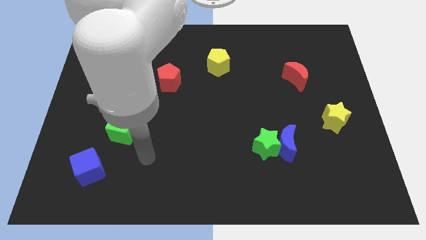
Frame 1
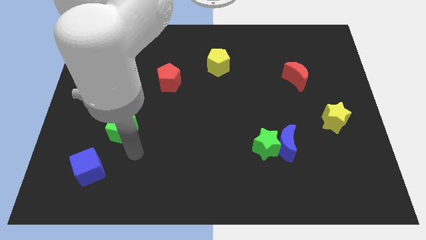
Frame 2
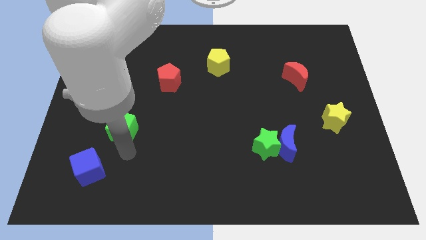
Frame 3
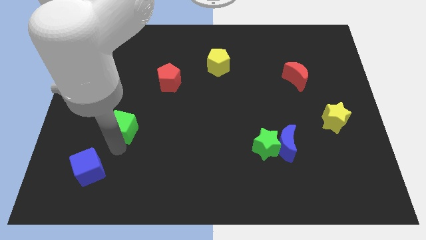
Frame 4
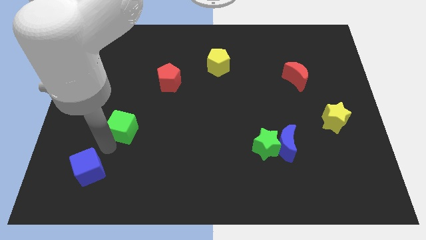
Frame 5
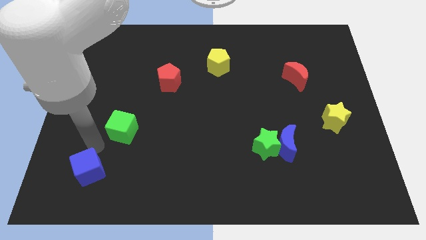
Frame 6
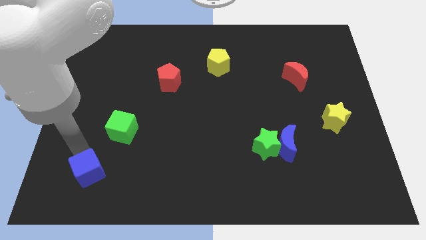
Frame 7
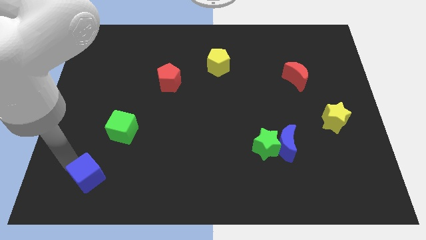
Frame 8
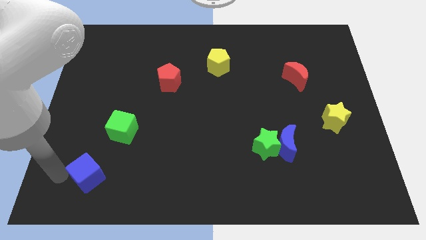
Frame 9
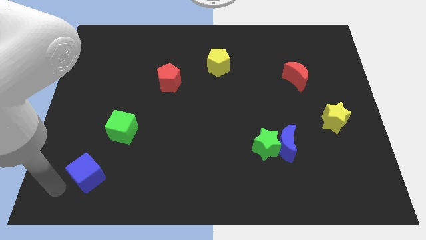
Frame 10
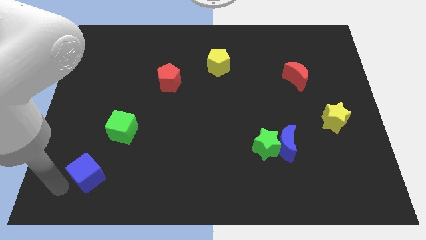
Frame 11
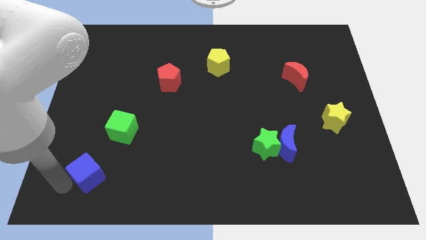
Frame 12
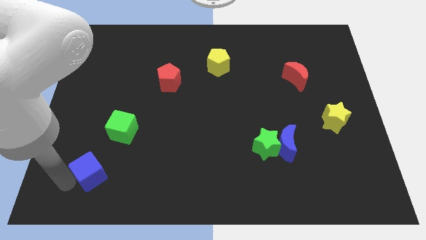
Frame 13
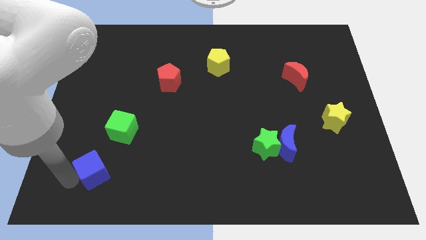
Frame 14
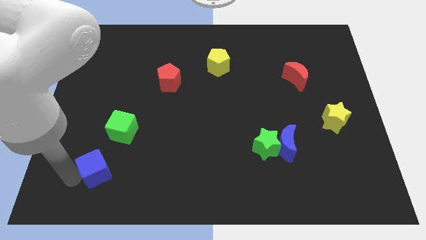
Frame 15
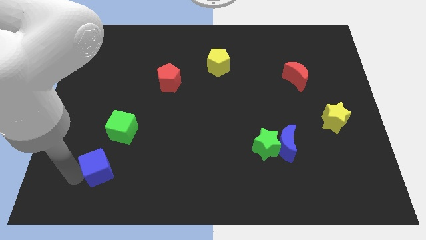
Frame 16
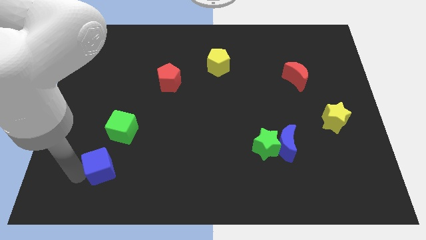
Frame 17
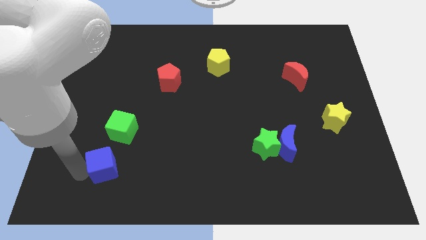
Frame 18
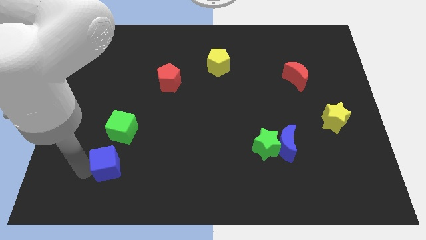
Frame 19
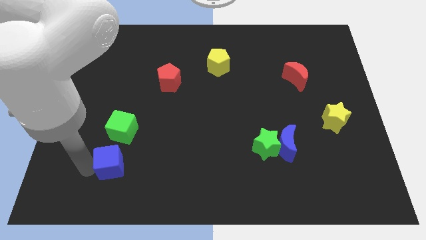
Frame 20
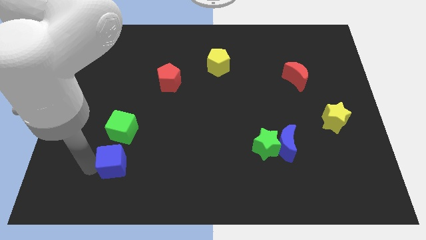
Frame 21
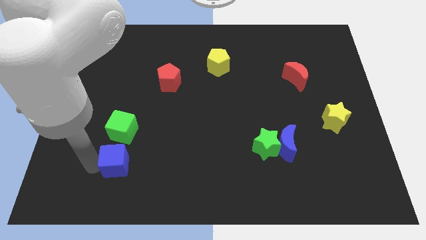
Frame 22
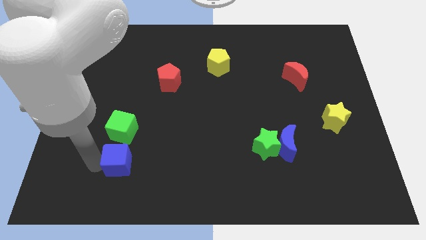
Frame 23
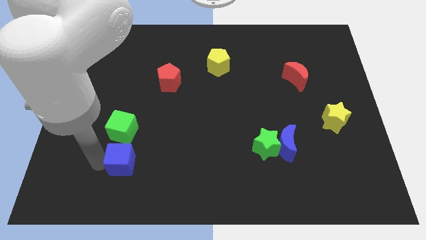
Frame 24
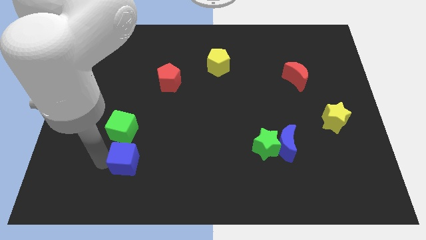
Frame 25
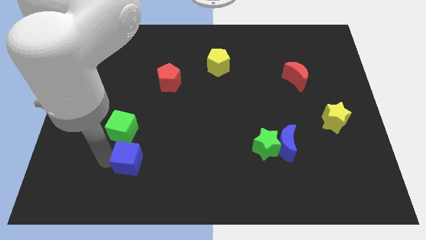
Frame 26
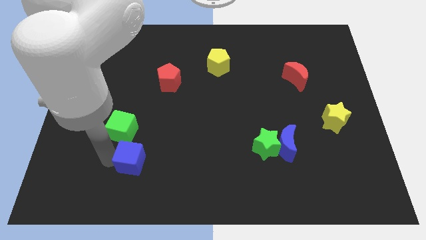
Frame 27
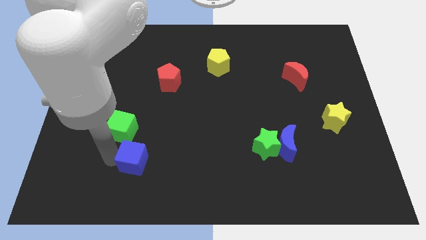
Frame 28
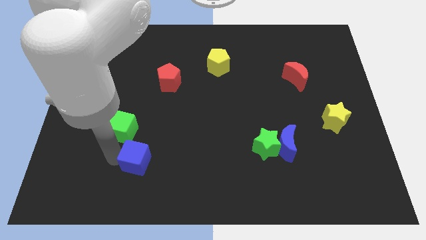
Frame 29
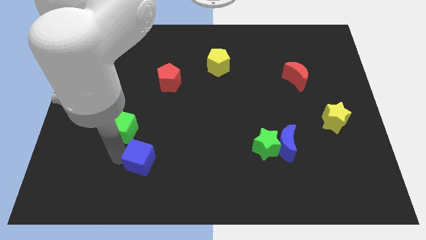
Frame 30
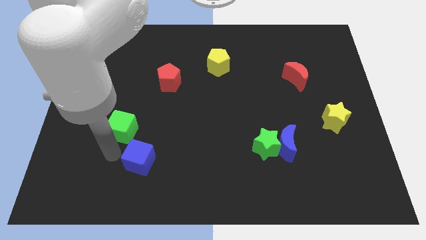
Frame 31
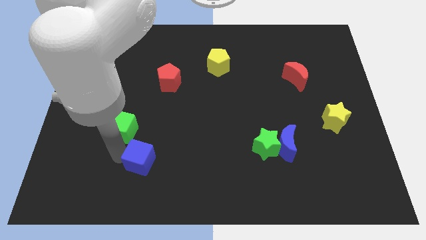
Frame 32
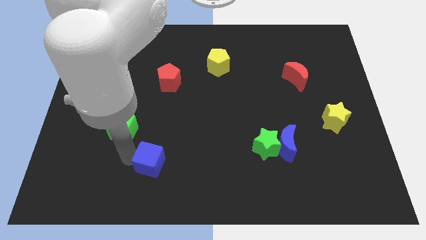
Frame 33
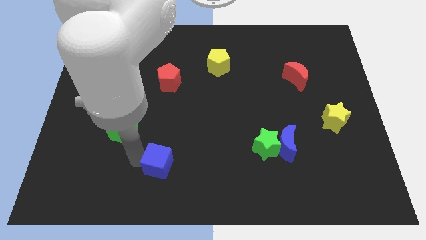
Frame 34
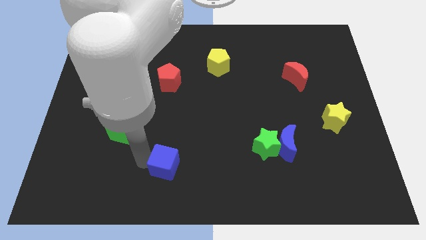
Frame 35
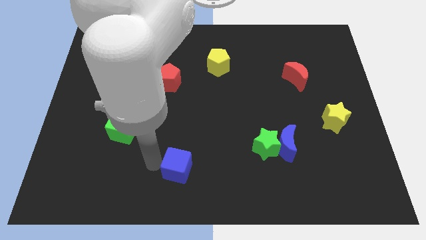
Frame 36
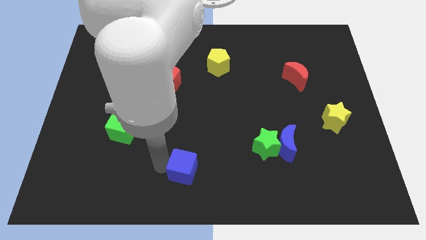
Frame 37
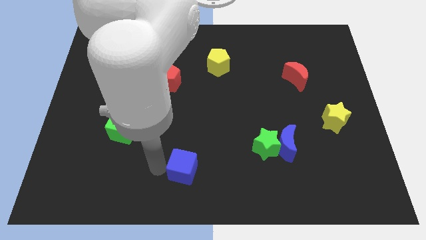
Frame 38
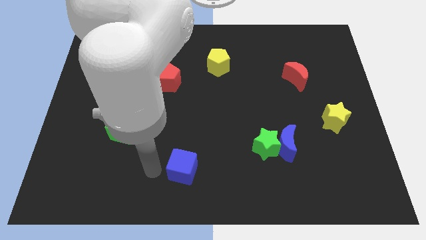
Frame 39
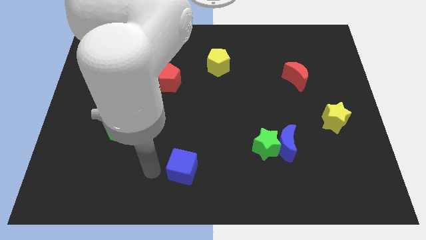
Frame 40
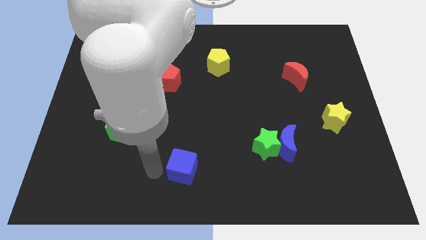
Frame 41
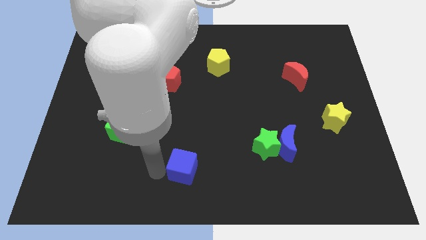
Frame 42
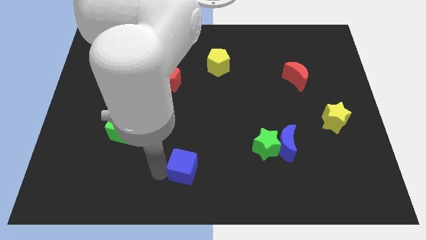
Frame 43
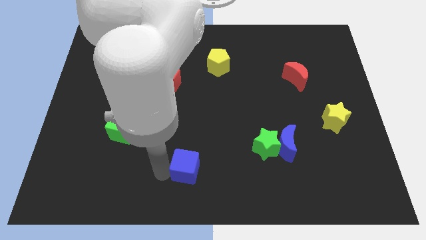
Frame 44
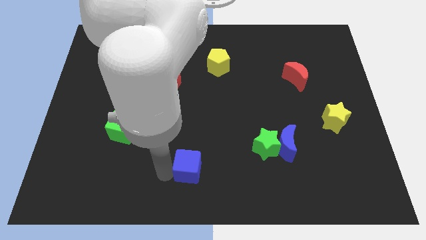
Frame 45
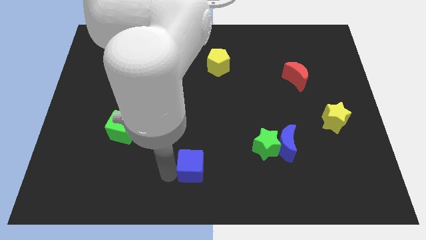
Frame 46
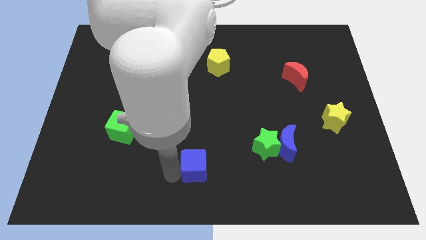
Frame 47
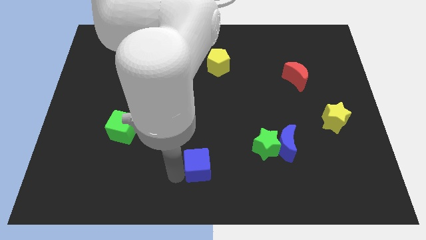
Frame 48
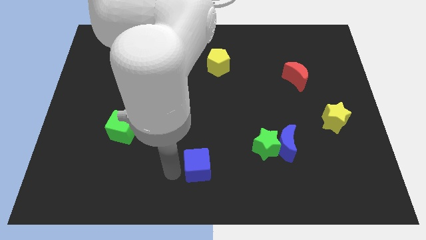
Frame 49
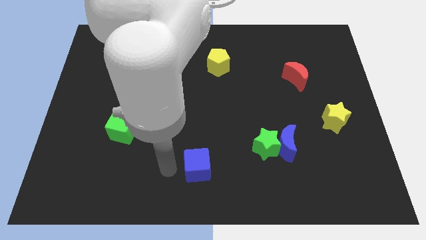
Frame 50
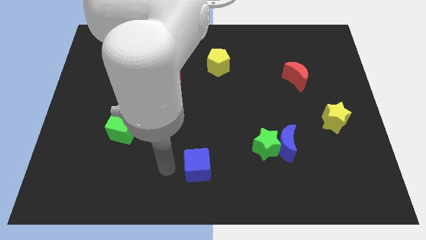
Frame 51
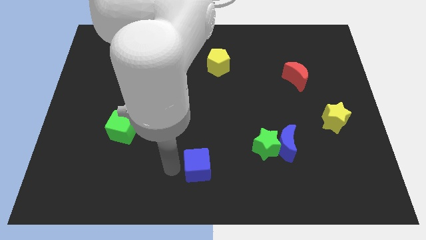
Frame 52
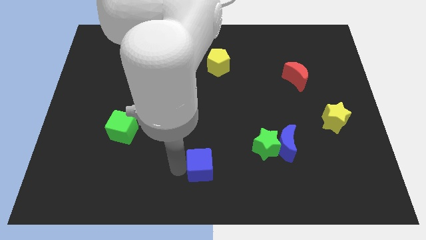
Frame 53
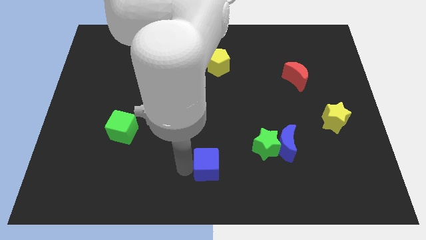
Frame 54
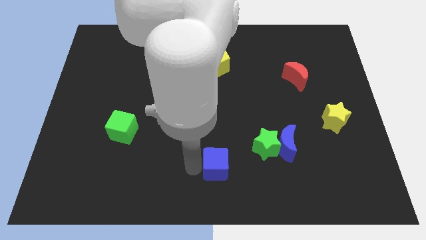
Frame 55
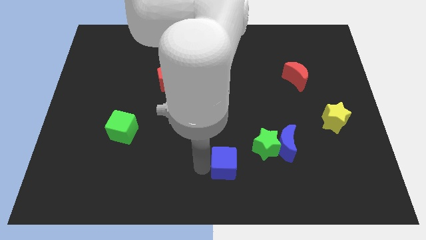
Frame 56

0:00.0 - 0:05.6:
put the blue cube to the bottom left side of the green star

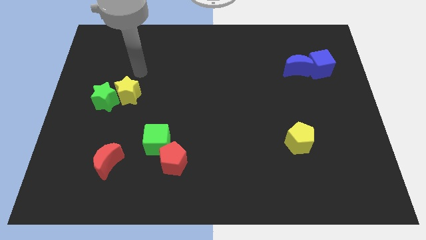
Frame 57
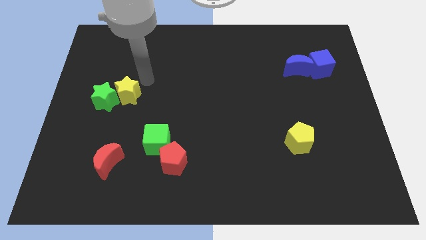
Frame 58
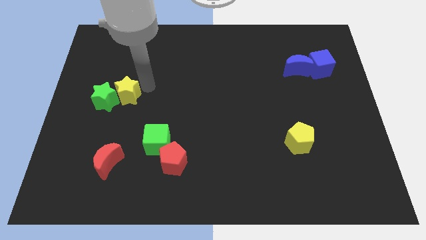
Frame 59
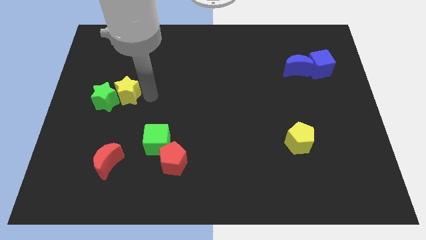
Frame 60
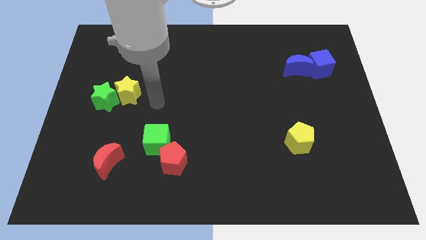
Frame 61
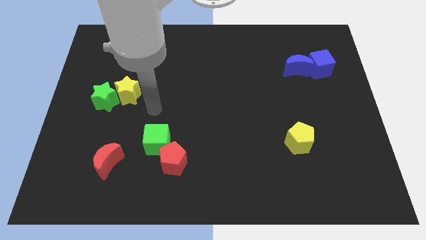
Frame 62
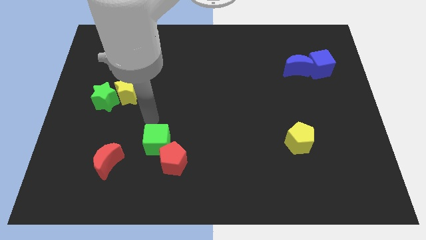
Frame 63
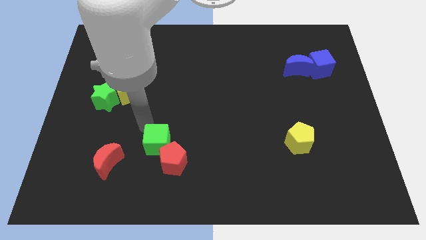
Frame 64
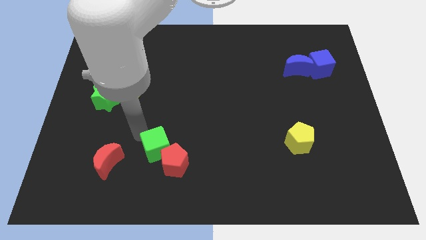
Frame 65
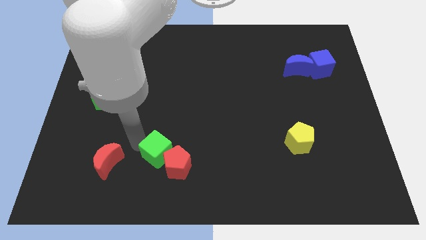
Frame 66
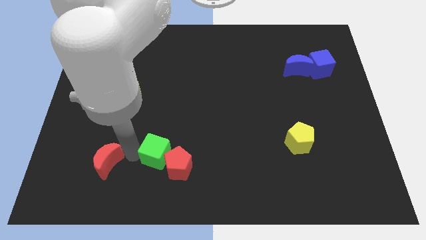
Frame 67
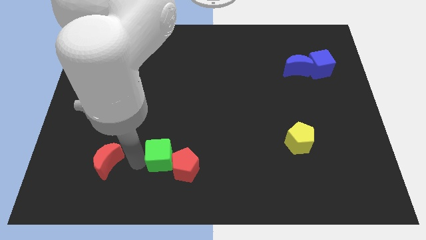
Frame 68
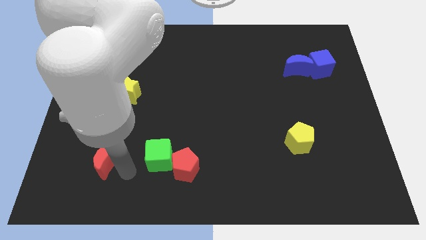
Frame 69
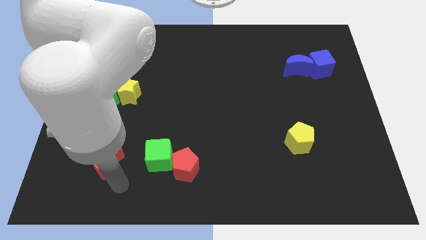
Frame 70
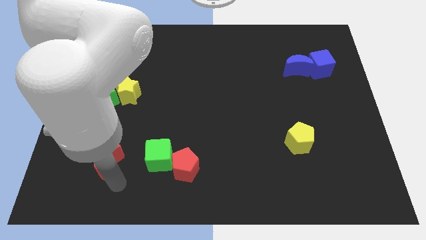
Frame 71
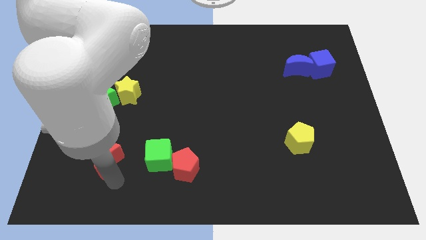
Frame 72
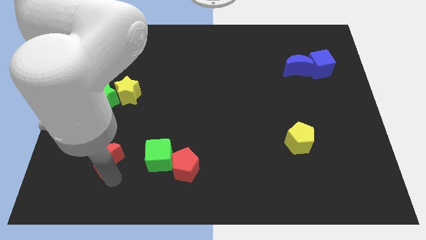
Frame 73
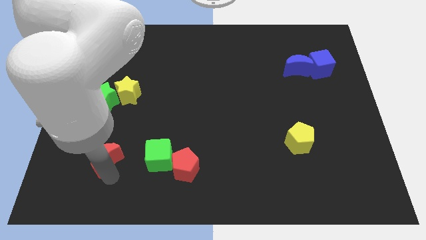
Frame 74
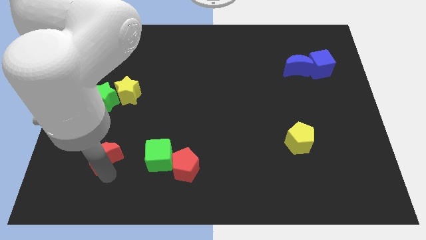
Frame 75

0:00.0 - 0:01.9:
move the red moon to the bottom side of the green star
